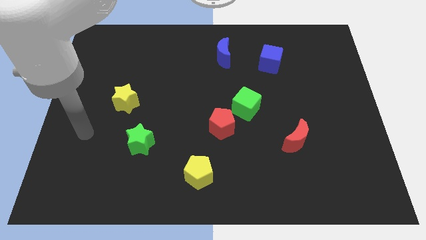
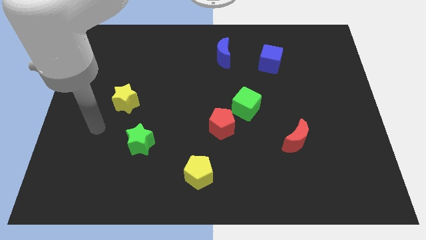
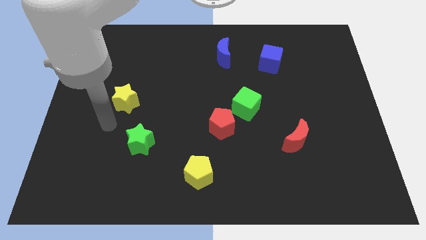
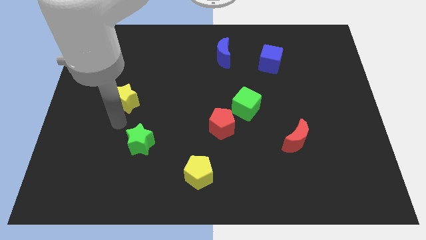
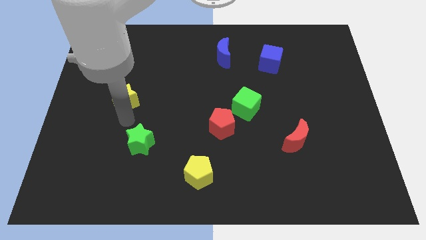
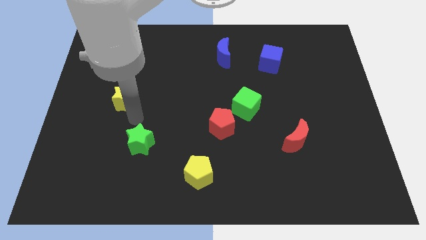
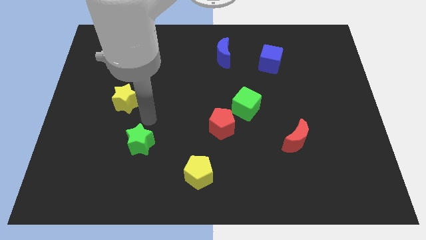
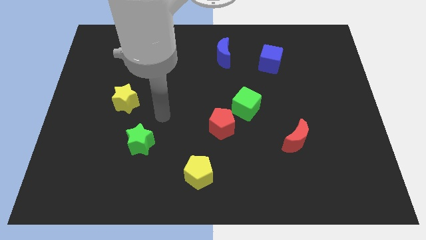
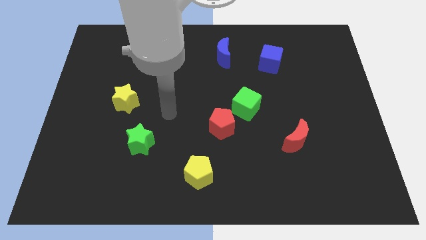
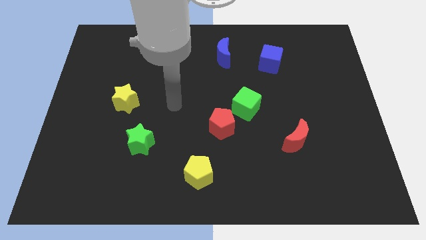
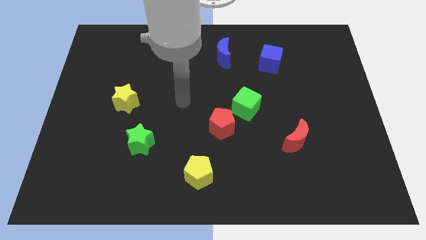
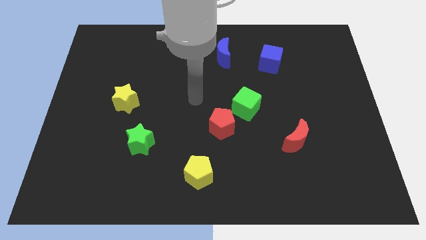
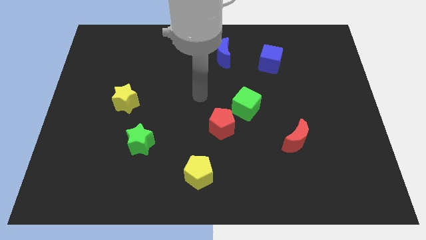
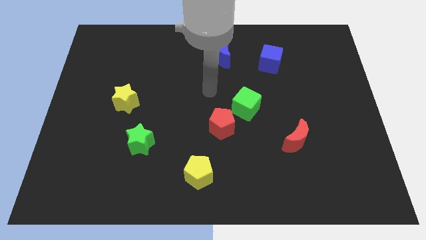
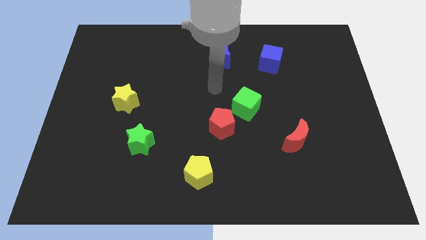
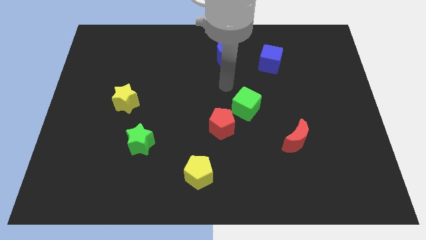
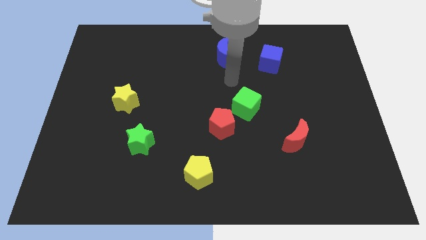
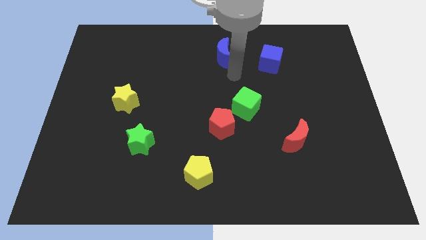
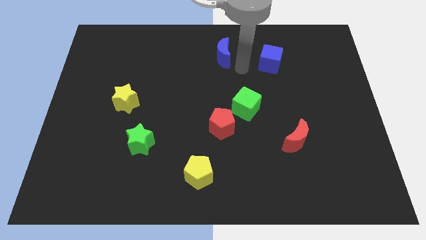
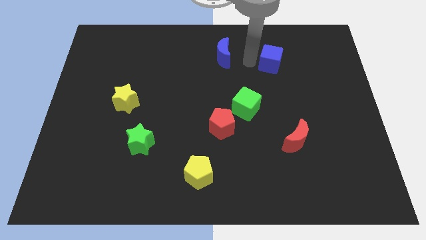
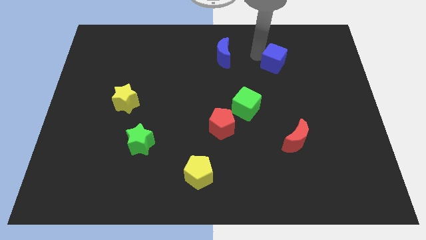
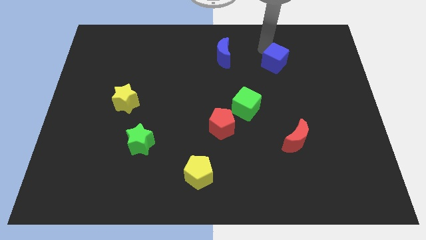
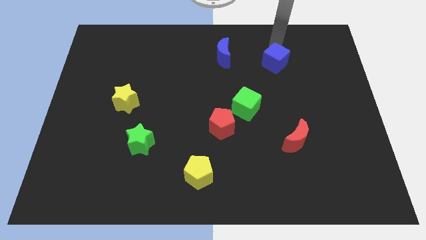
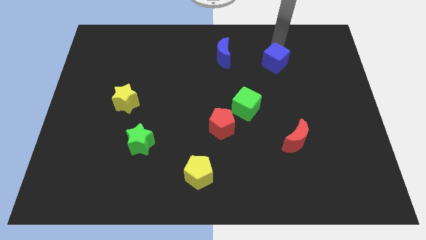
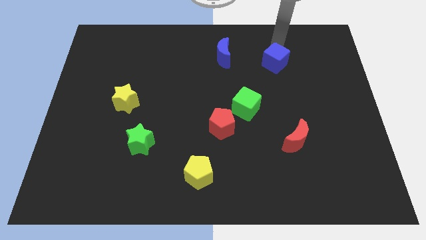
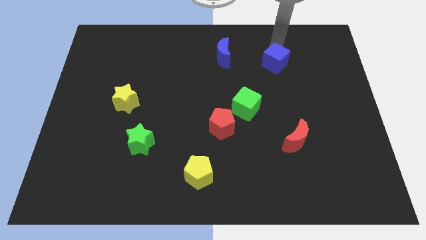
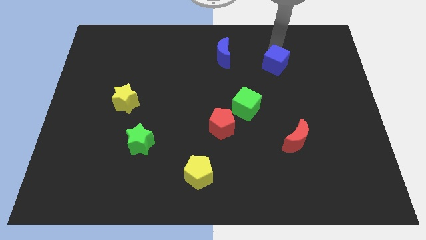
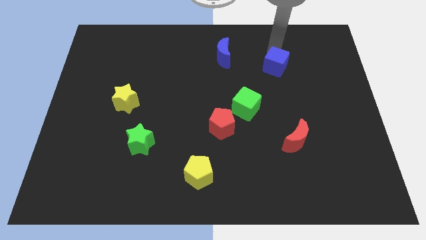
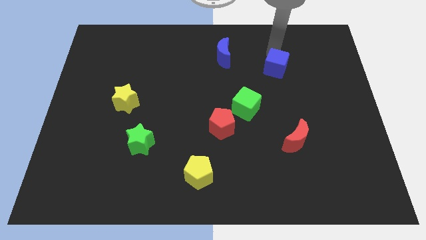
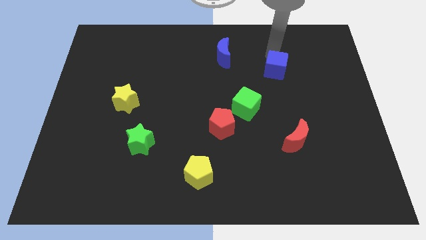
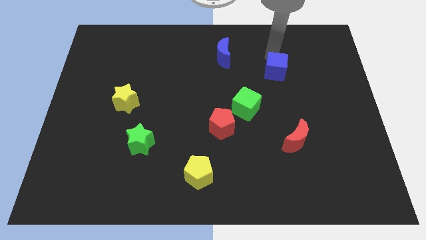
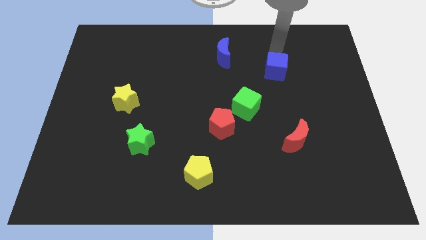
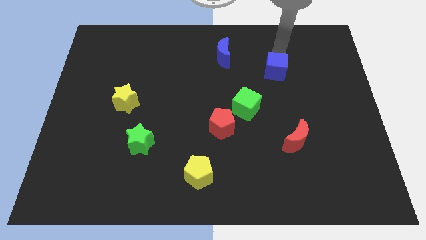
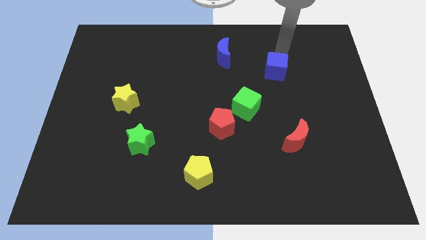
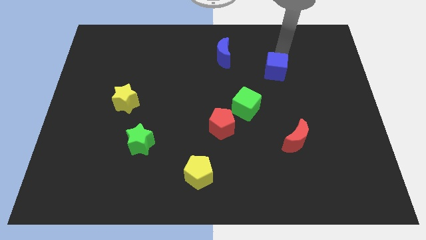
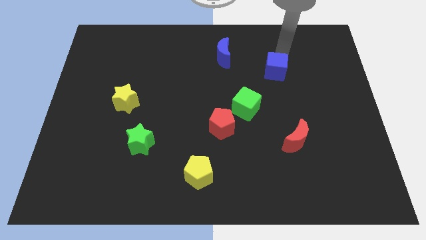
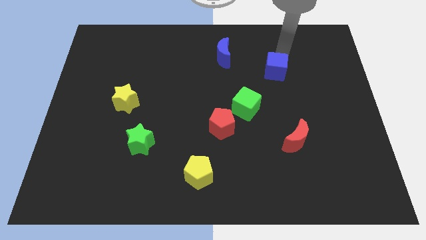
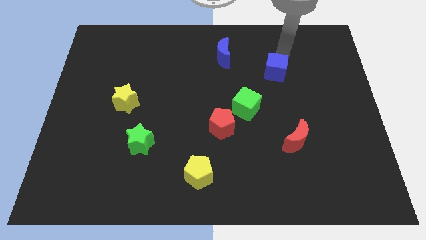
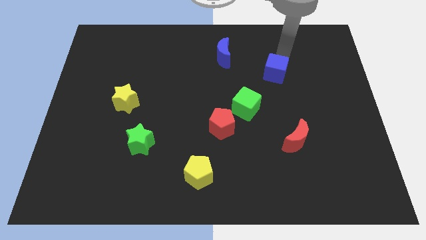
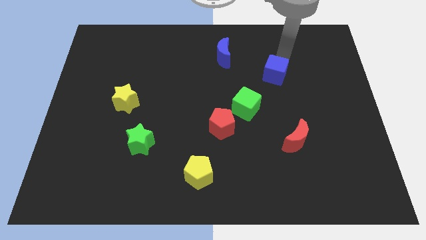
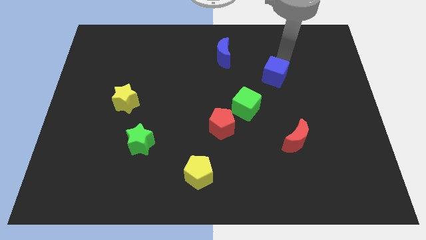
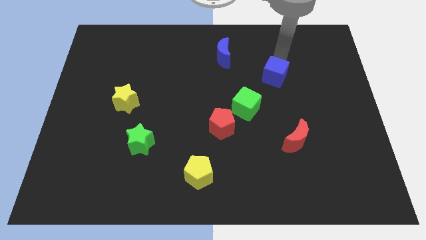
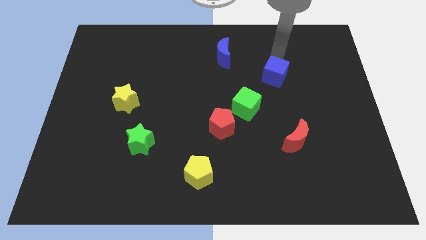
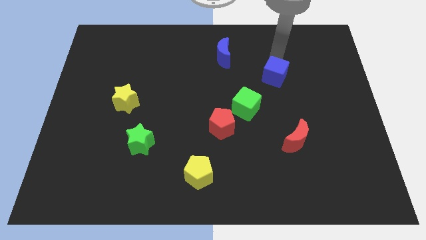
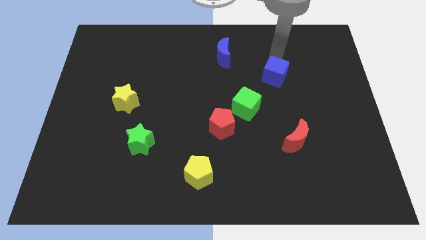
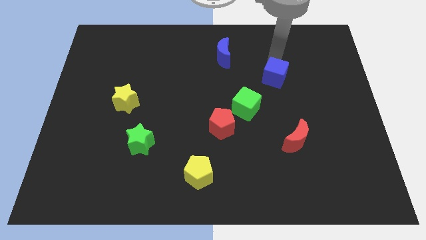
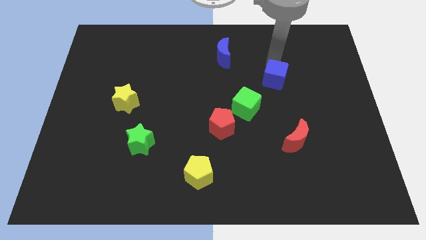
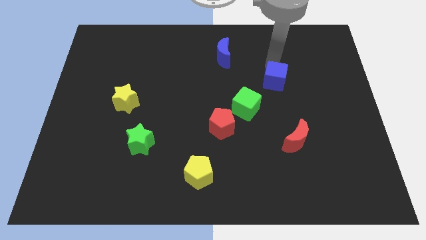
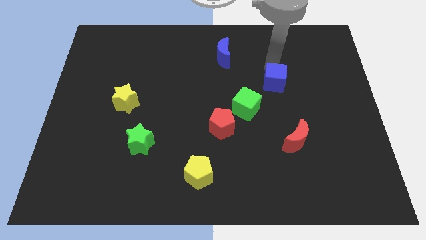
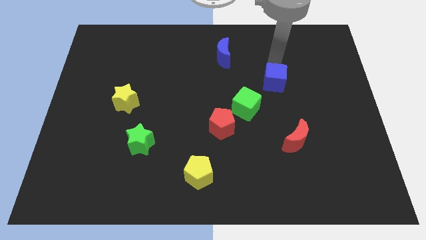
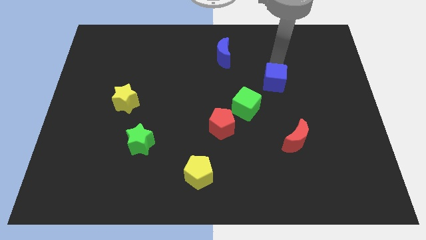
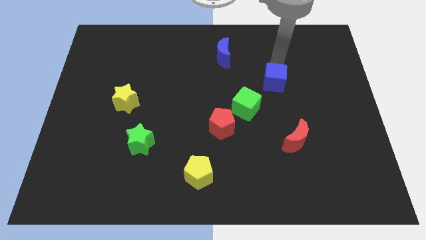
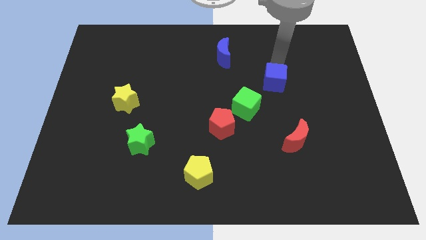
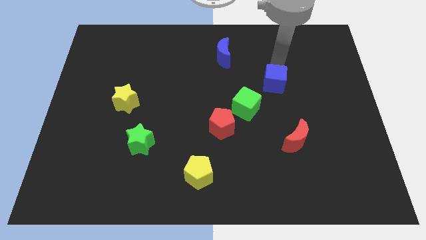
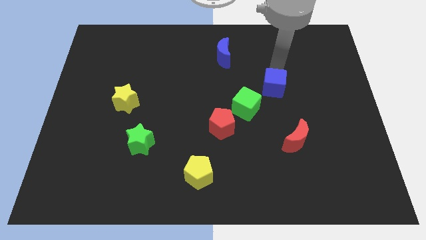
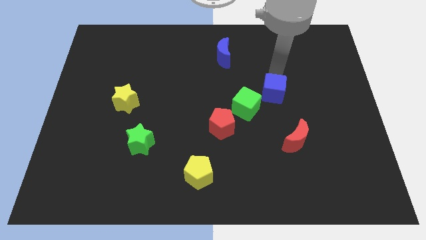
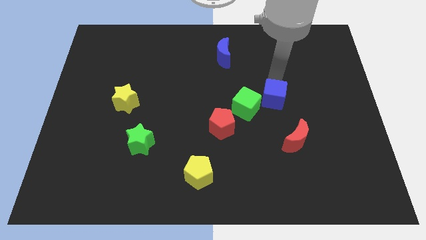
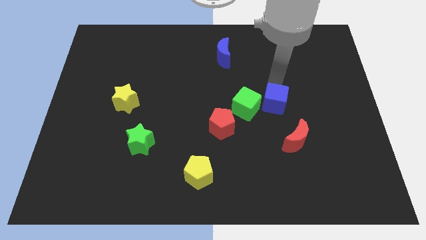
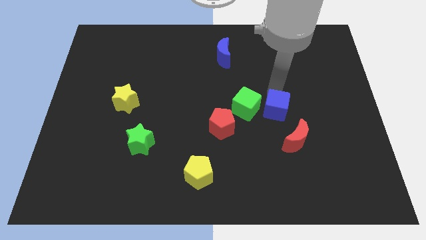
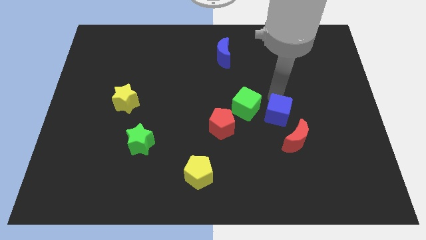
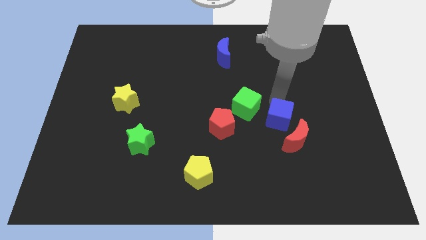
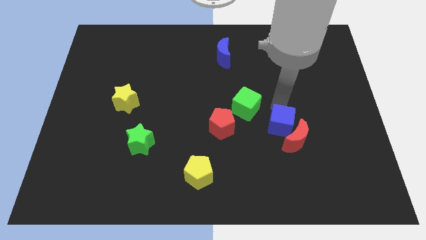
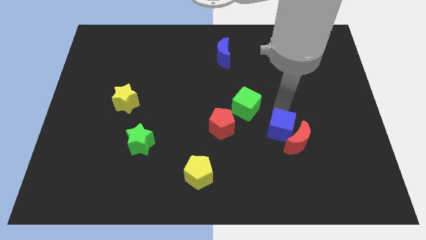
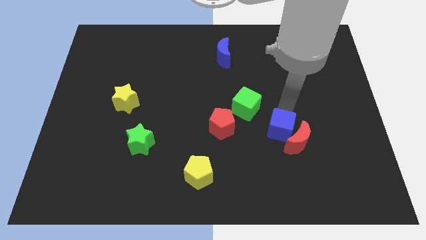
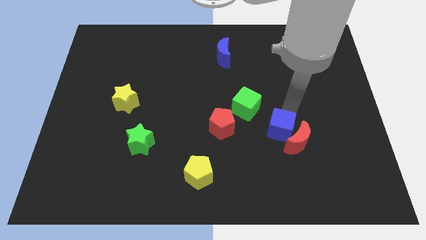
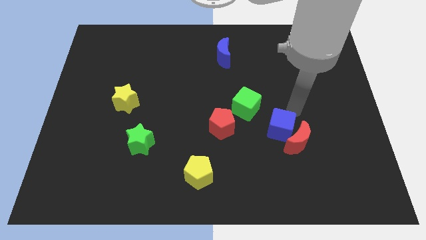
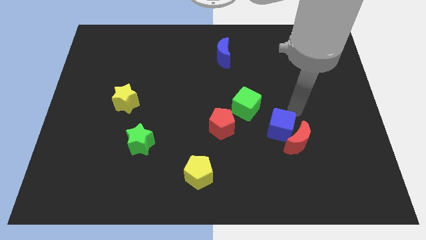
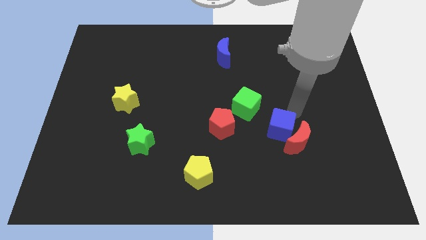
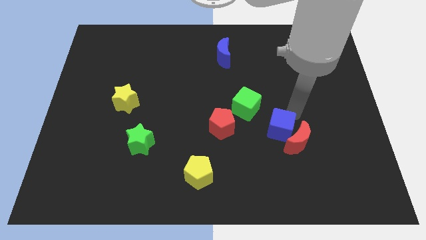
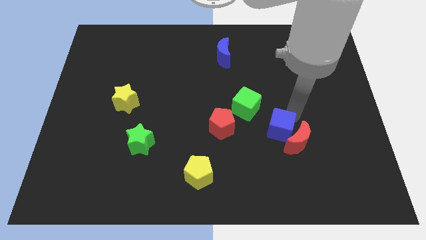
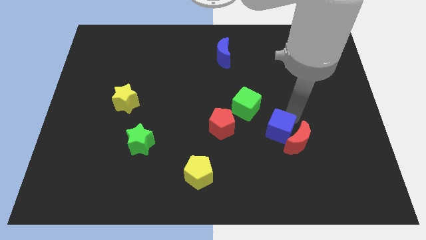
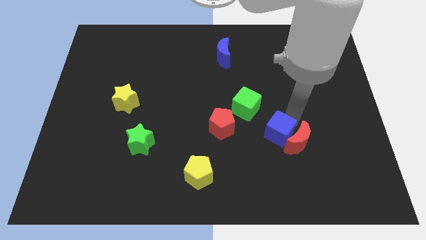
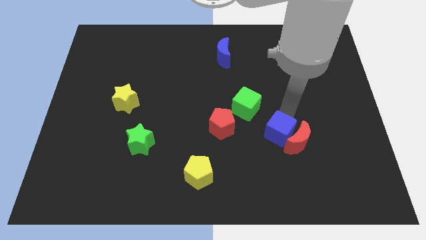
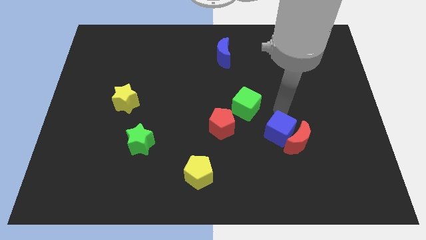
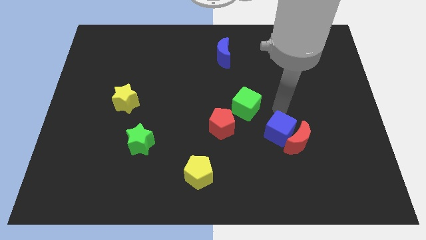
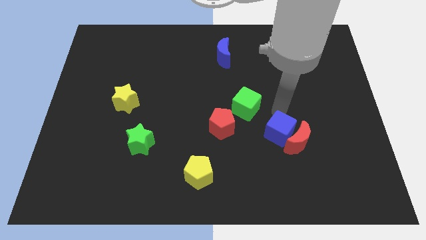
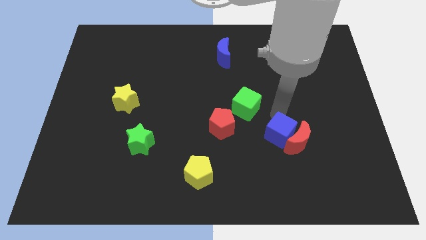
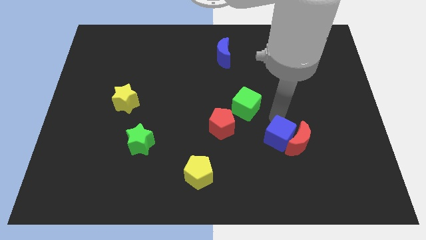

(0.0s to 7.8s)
push the blue cube to the bottom left of the red moon
